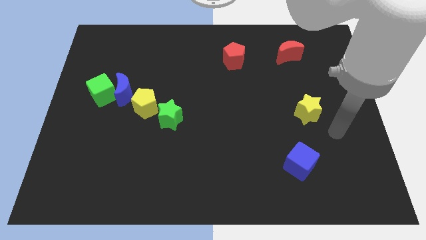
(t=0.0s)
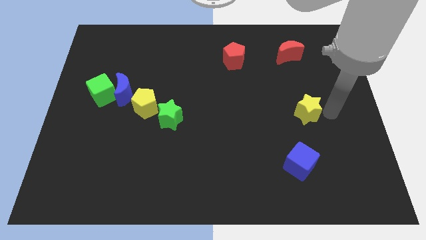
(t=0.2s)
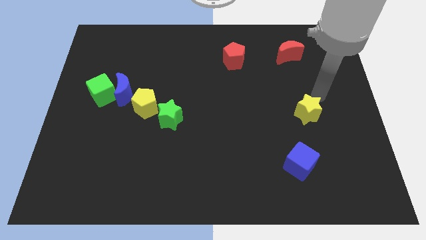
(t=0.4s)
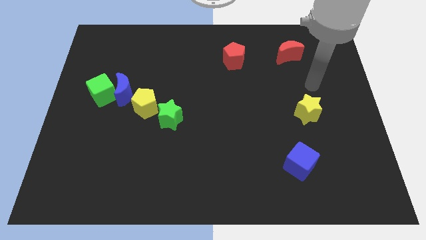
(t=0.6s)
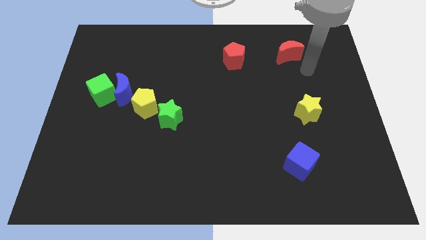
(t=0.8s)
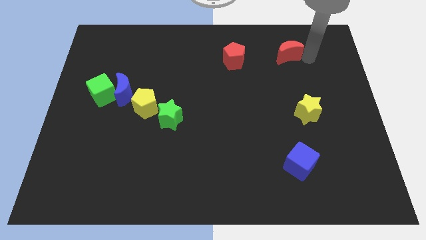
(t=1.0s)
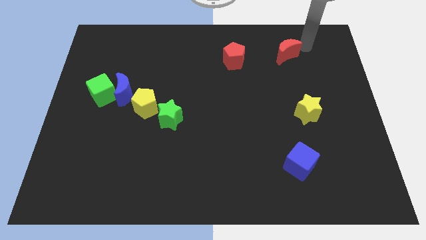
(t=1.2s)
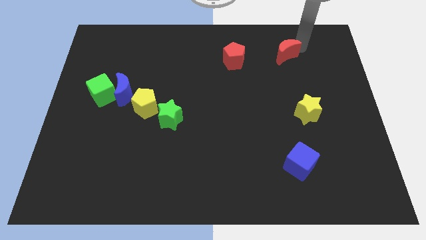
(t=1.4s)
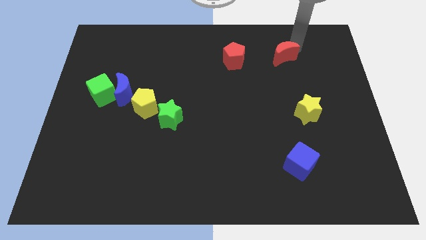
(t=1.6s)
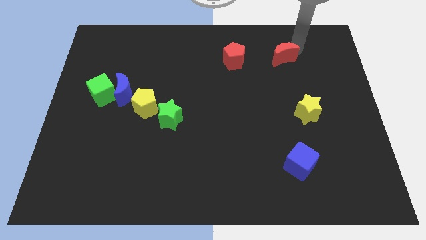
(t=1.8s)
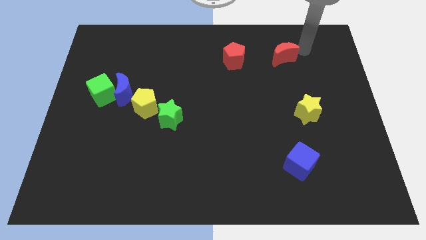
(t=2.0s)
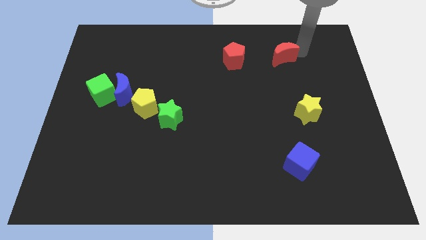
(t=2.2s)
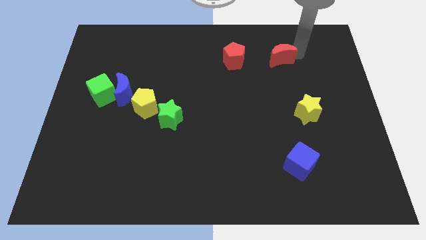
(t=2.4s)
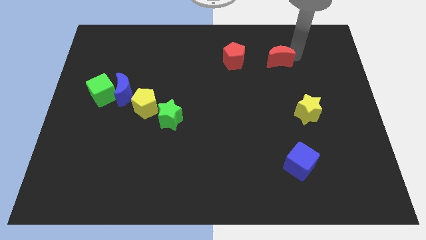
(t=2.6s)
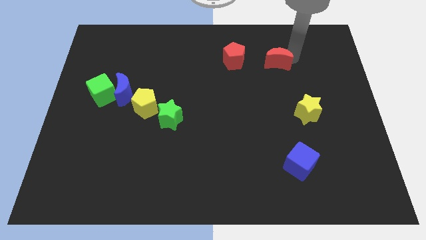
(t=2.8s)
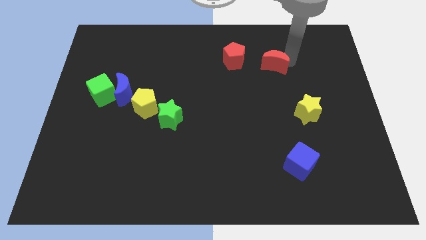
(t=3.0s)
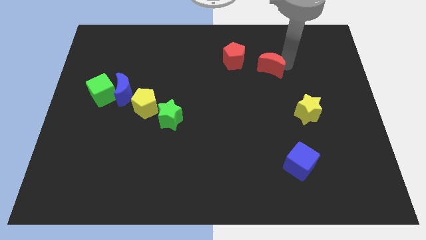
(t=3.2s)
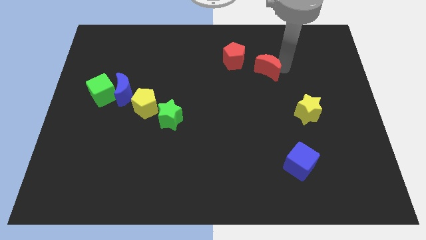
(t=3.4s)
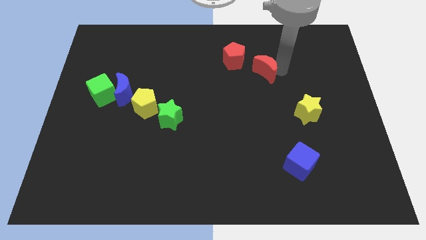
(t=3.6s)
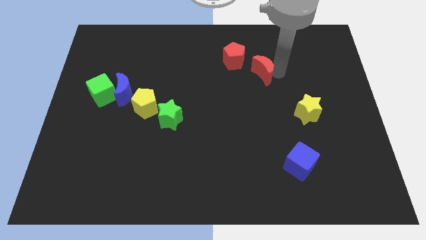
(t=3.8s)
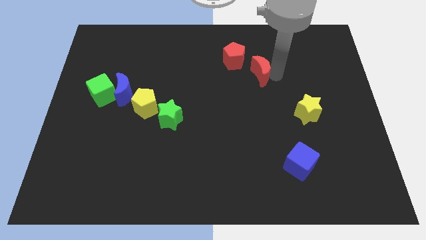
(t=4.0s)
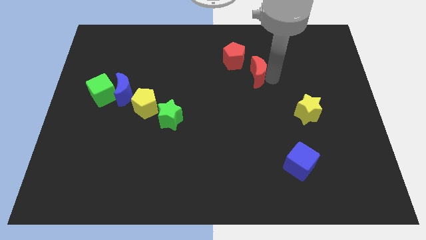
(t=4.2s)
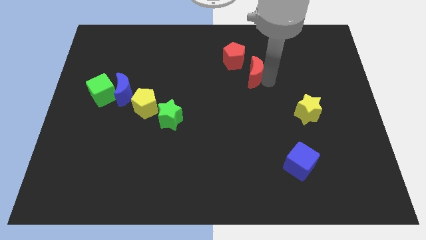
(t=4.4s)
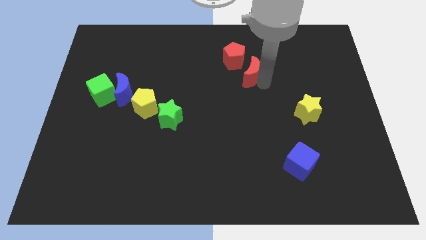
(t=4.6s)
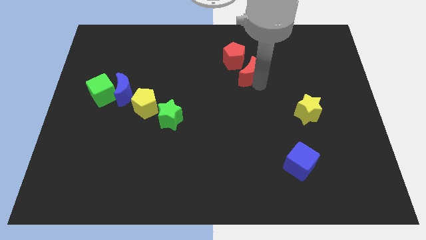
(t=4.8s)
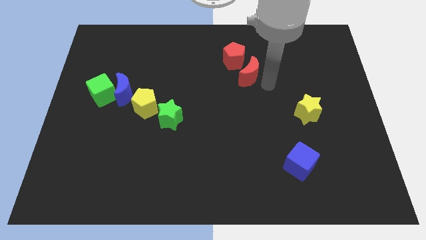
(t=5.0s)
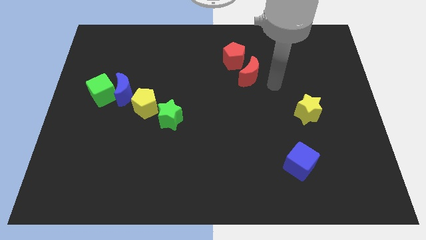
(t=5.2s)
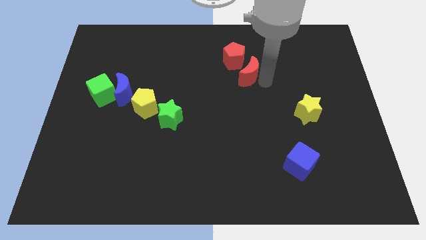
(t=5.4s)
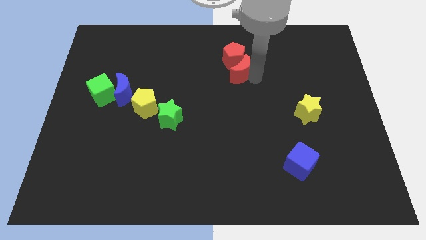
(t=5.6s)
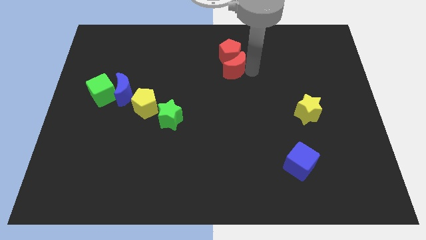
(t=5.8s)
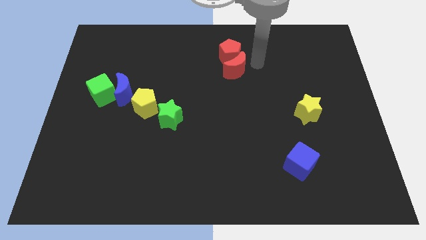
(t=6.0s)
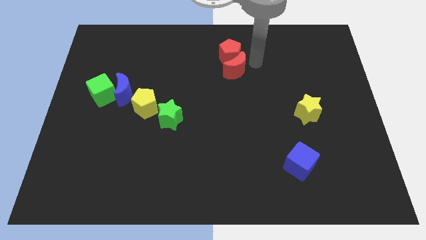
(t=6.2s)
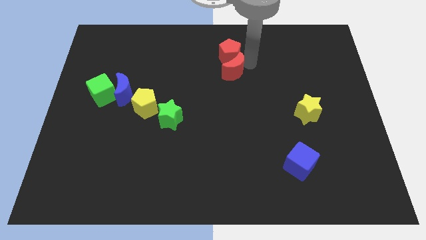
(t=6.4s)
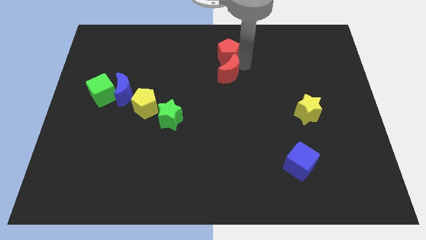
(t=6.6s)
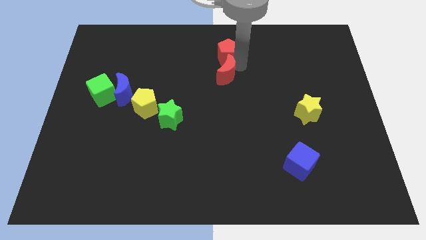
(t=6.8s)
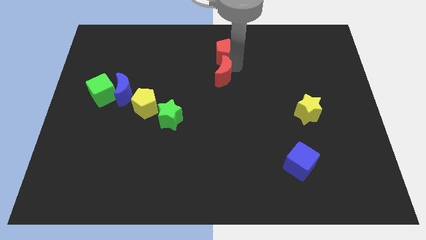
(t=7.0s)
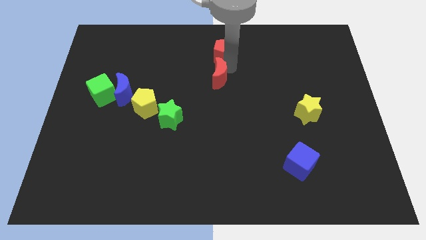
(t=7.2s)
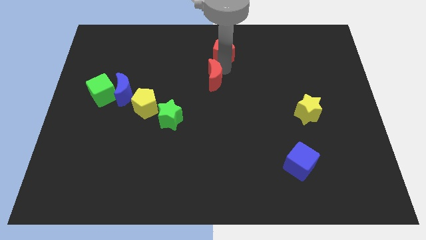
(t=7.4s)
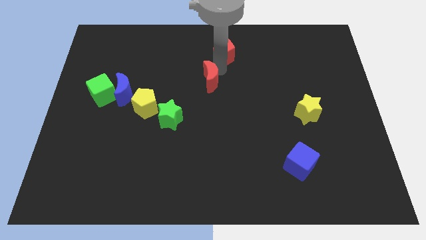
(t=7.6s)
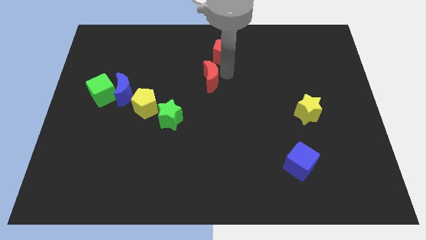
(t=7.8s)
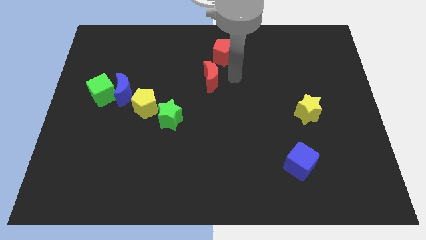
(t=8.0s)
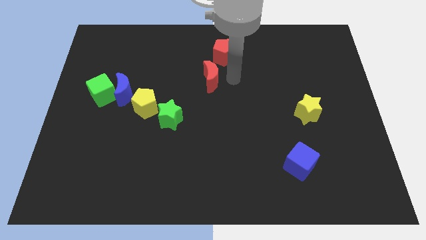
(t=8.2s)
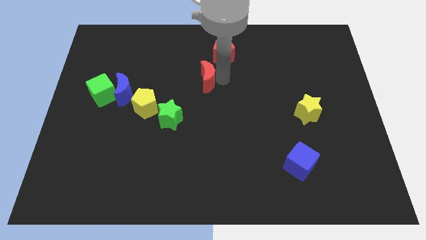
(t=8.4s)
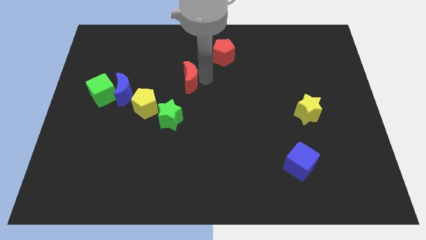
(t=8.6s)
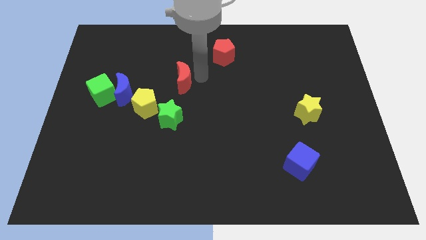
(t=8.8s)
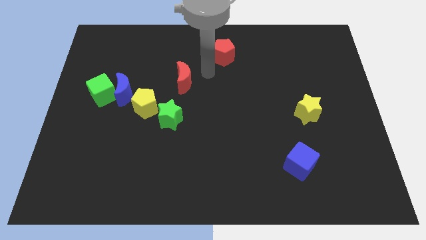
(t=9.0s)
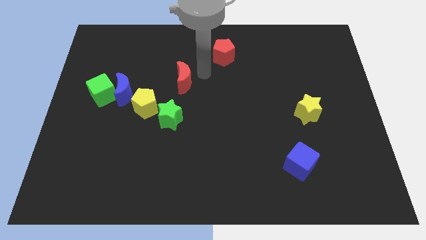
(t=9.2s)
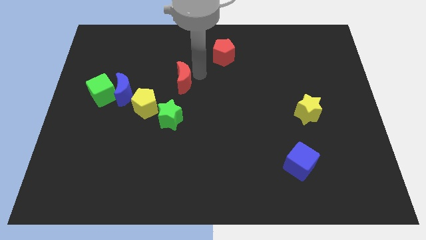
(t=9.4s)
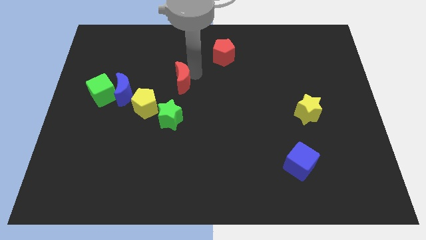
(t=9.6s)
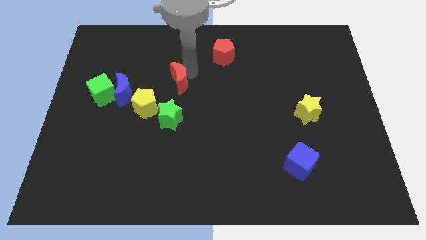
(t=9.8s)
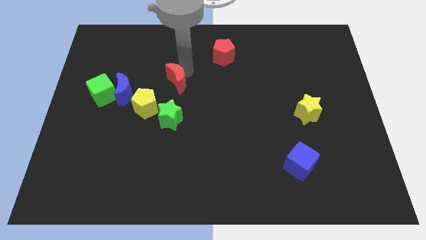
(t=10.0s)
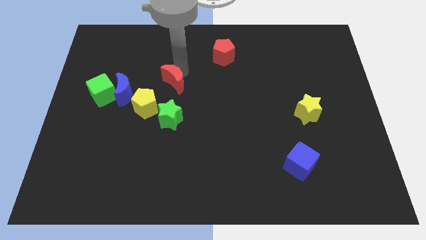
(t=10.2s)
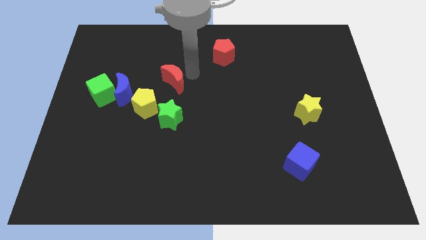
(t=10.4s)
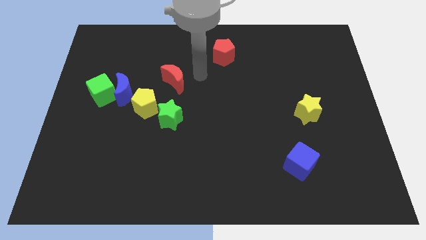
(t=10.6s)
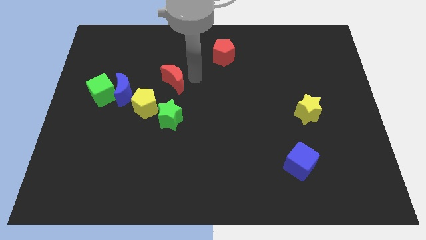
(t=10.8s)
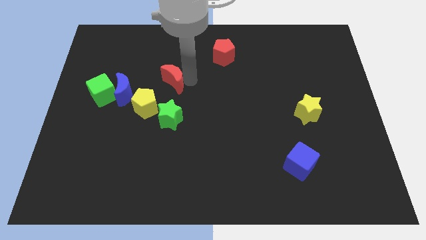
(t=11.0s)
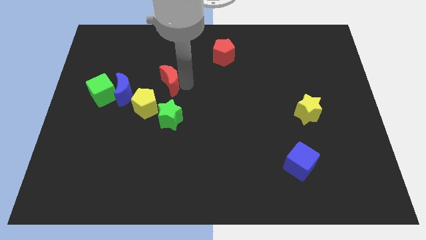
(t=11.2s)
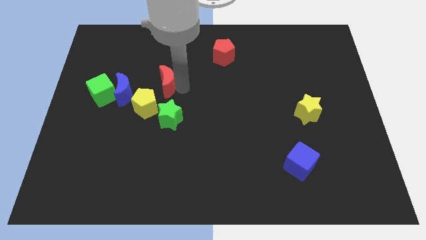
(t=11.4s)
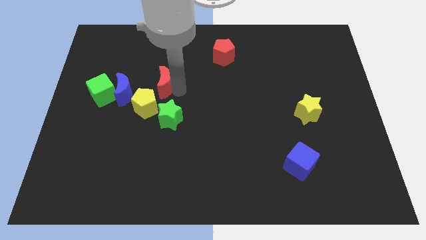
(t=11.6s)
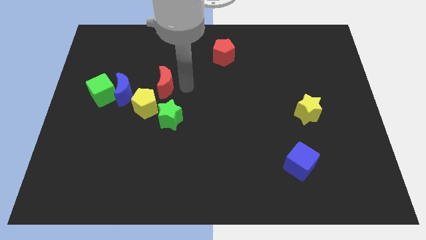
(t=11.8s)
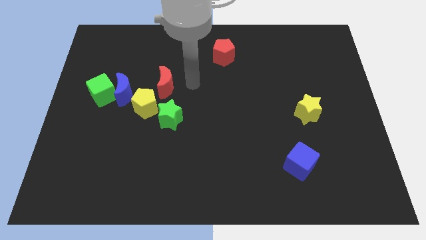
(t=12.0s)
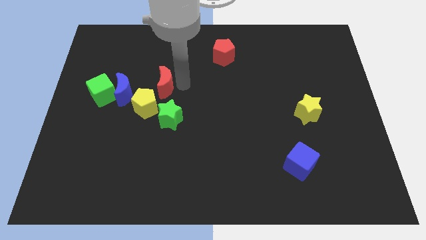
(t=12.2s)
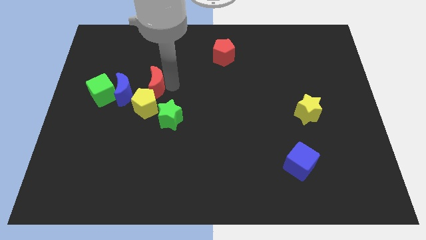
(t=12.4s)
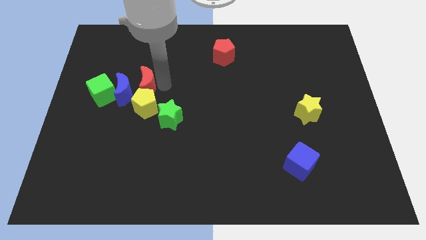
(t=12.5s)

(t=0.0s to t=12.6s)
slide the red moon to the blue moon

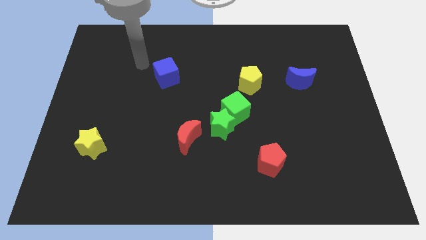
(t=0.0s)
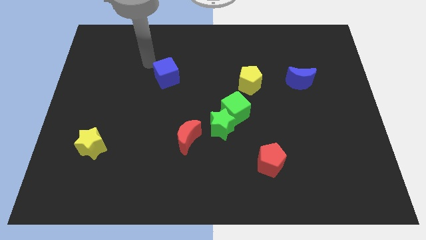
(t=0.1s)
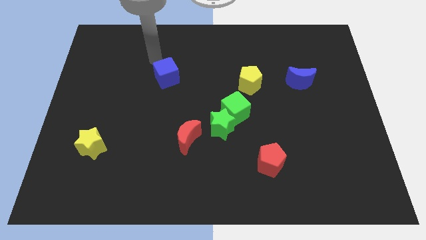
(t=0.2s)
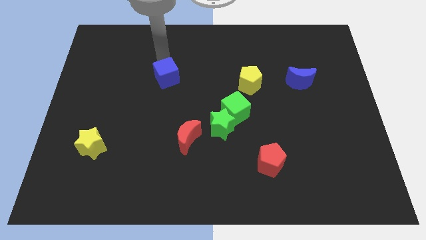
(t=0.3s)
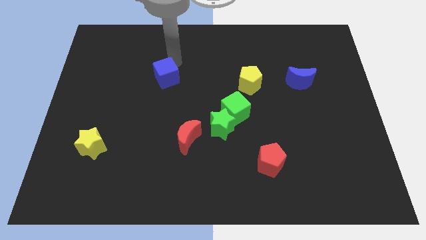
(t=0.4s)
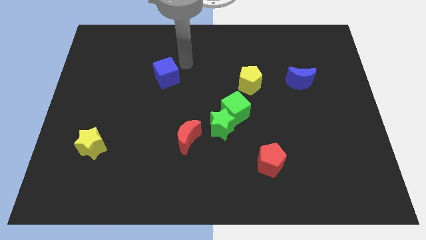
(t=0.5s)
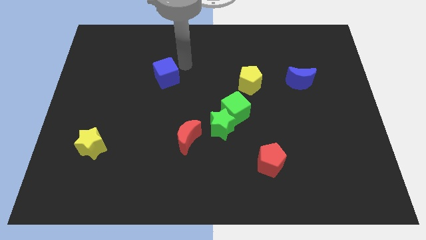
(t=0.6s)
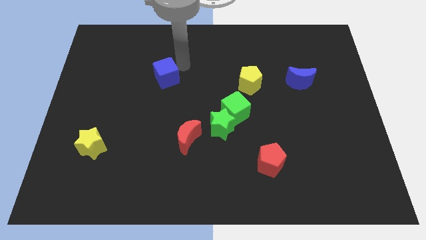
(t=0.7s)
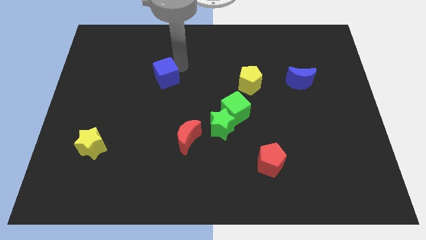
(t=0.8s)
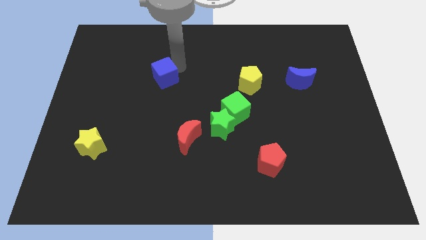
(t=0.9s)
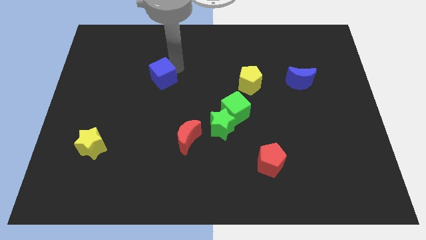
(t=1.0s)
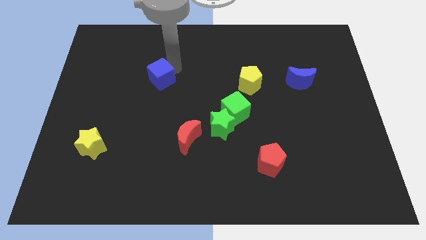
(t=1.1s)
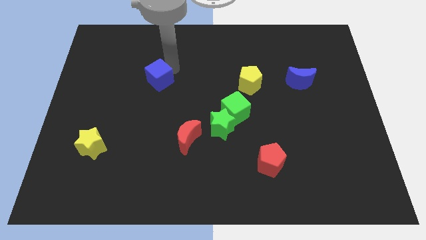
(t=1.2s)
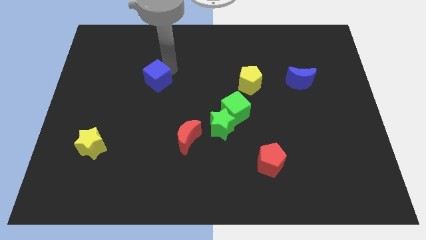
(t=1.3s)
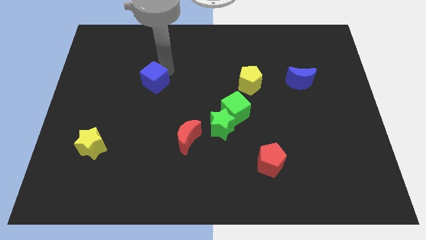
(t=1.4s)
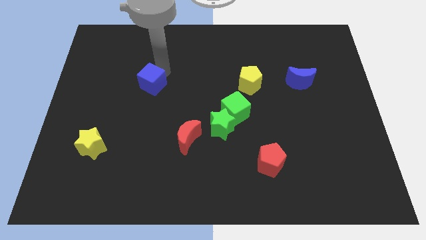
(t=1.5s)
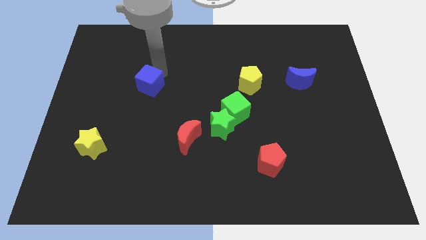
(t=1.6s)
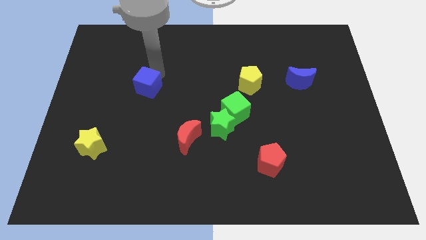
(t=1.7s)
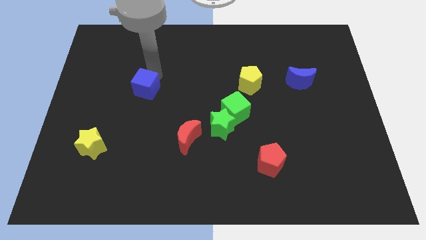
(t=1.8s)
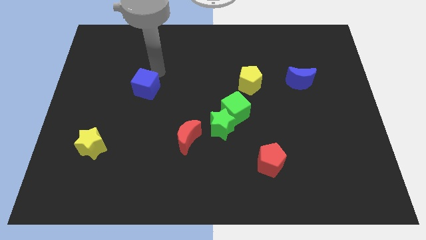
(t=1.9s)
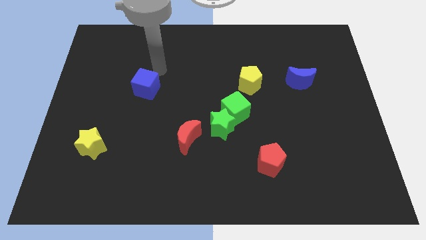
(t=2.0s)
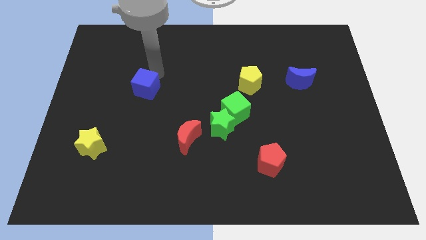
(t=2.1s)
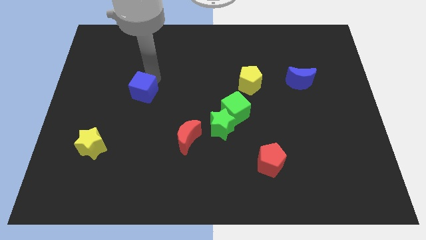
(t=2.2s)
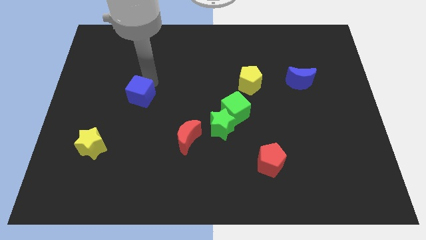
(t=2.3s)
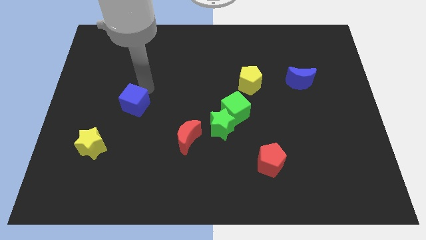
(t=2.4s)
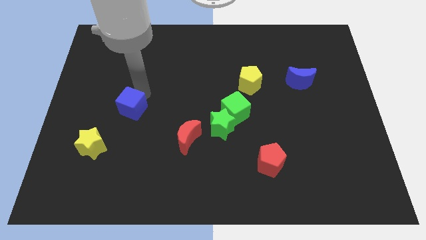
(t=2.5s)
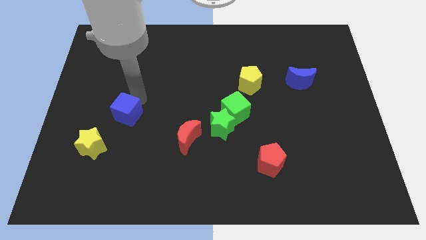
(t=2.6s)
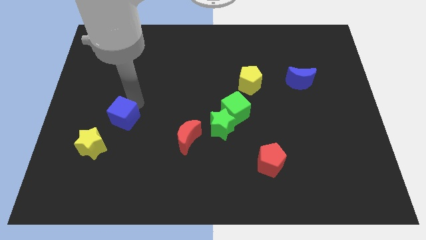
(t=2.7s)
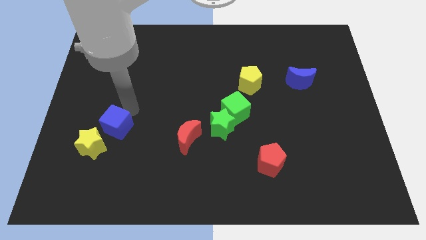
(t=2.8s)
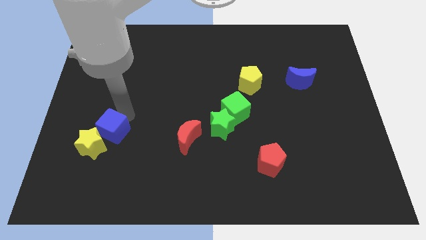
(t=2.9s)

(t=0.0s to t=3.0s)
slide the blue cube next to the yellow star
